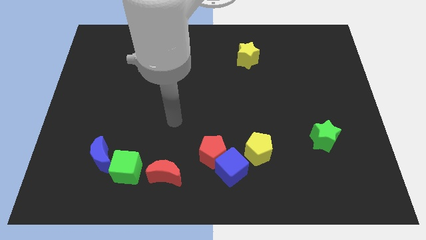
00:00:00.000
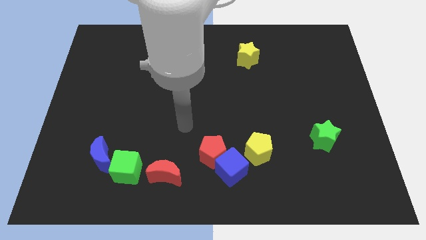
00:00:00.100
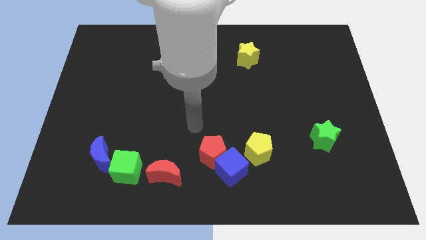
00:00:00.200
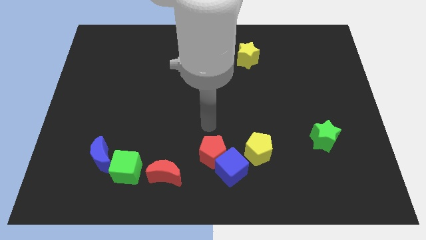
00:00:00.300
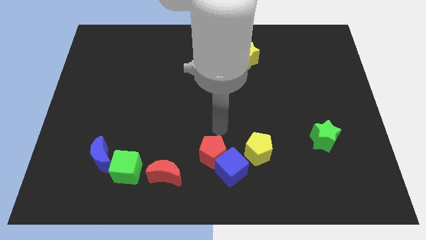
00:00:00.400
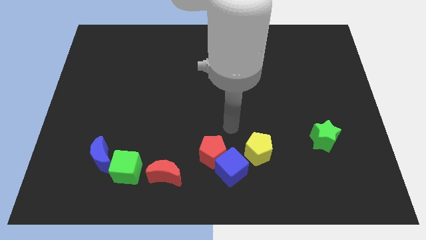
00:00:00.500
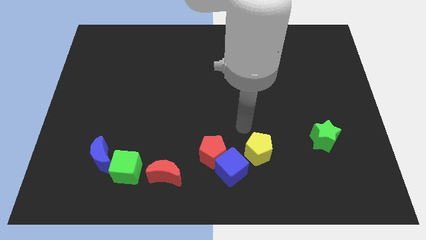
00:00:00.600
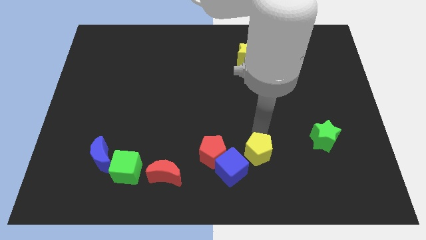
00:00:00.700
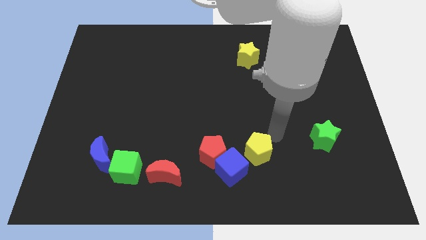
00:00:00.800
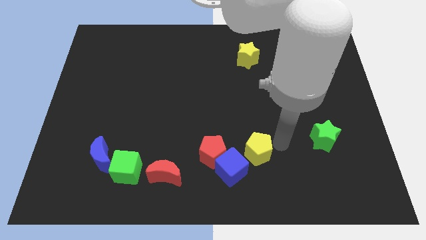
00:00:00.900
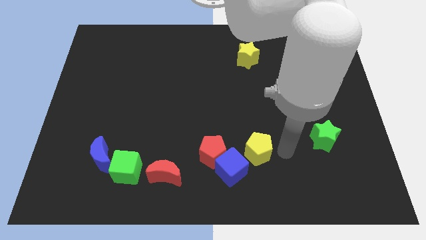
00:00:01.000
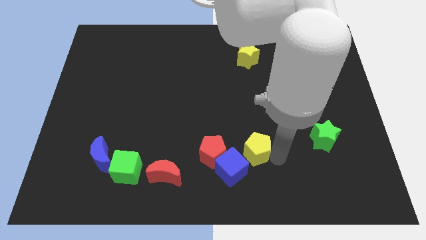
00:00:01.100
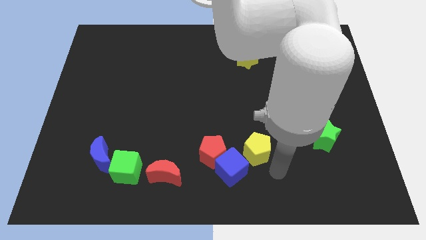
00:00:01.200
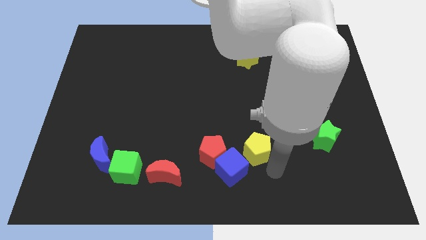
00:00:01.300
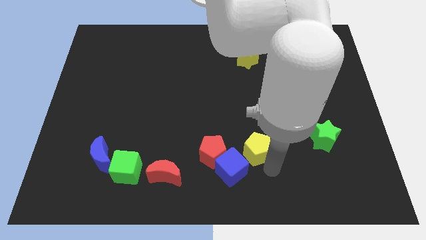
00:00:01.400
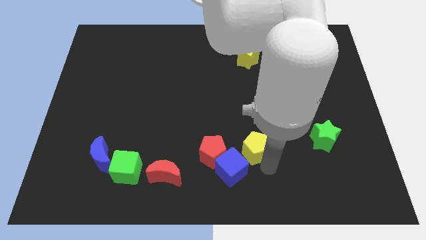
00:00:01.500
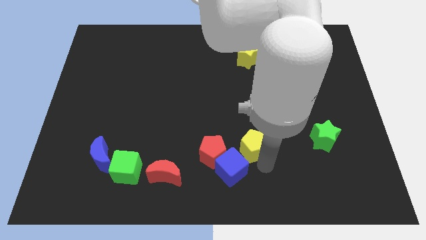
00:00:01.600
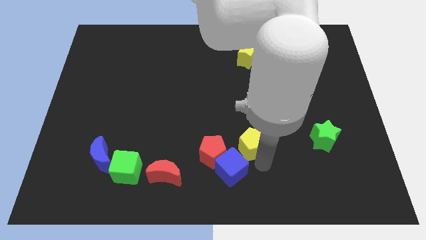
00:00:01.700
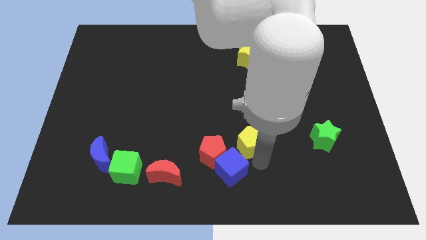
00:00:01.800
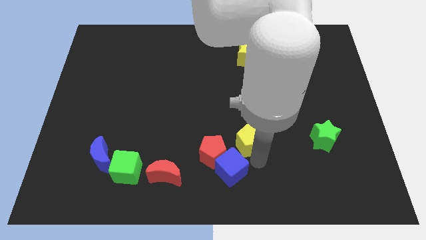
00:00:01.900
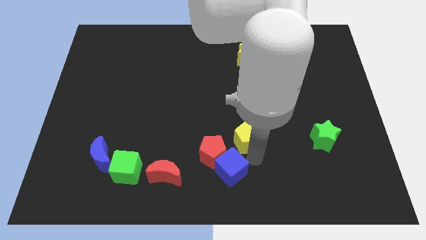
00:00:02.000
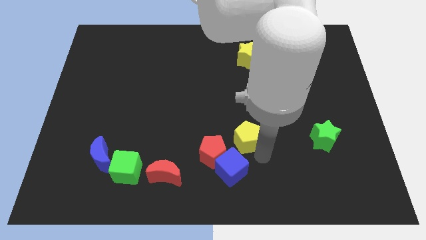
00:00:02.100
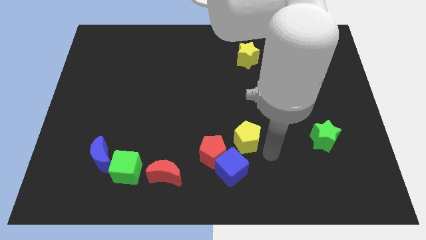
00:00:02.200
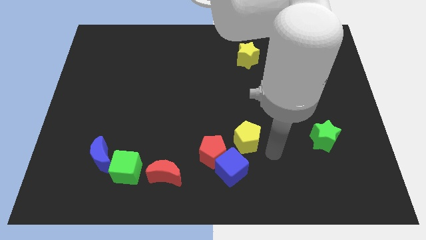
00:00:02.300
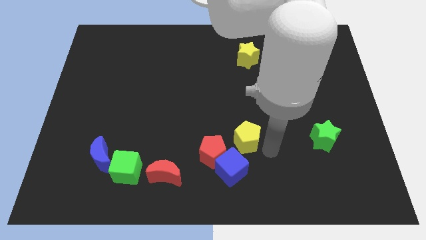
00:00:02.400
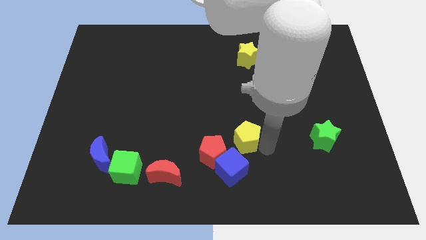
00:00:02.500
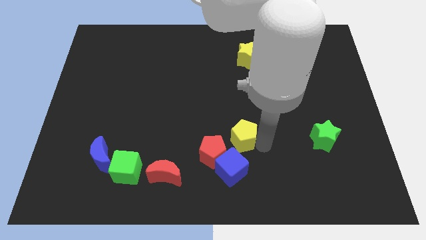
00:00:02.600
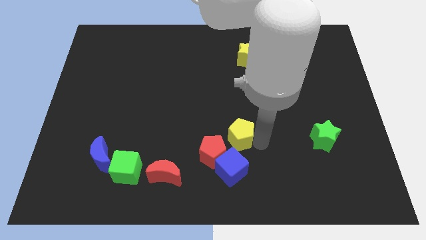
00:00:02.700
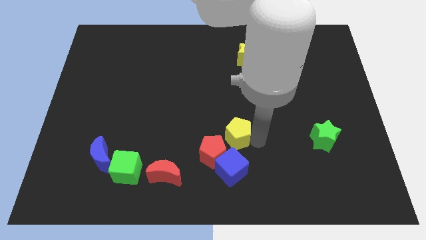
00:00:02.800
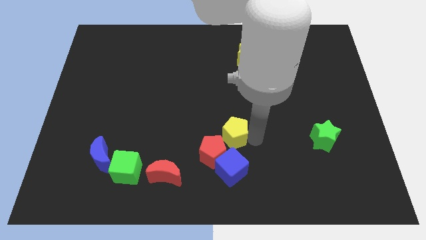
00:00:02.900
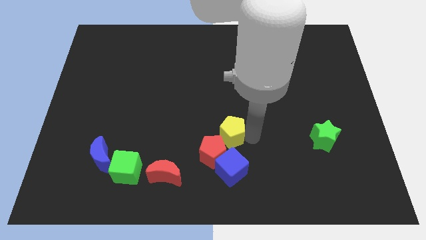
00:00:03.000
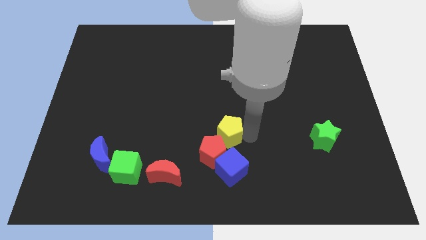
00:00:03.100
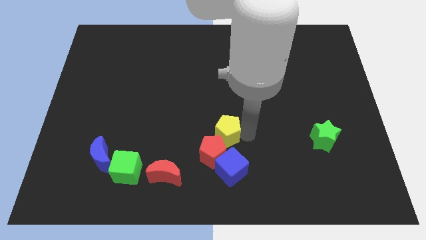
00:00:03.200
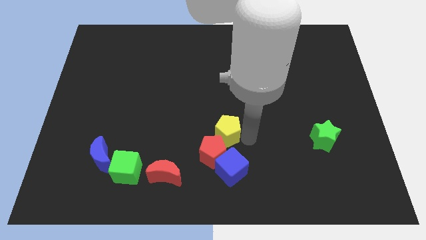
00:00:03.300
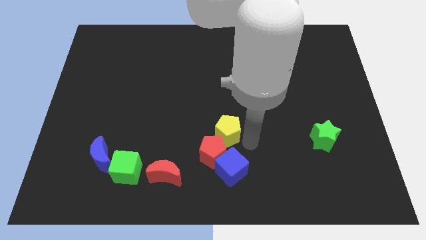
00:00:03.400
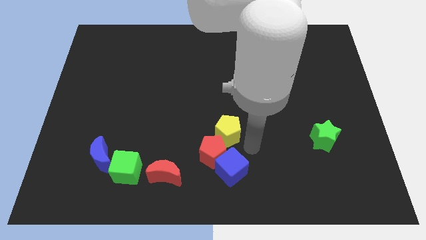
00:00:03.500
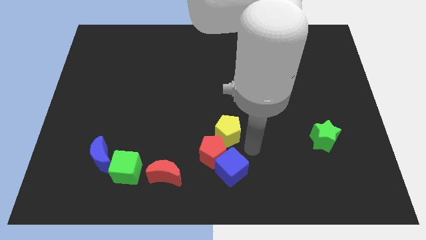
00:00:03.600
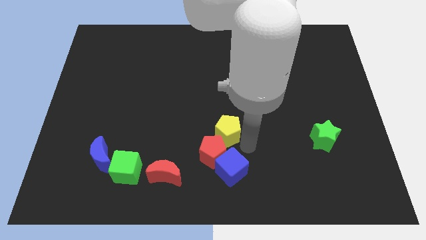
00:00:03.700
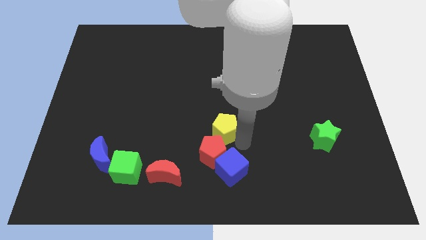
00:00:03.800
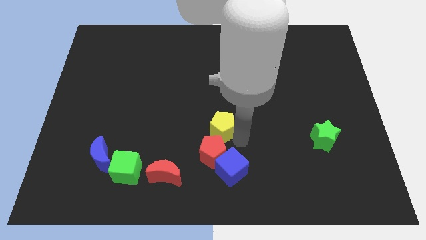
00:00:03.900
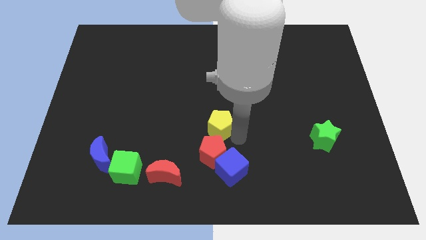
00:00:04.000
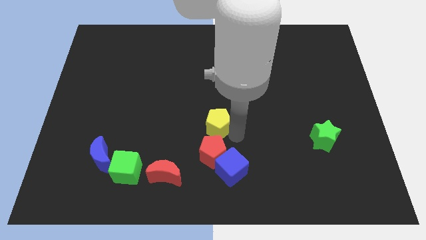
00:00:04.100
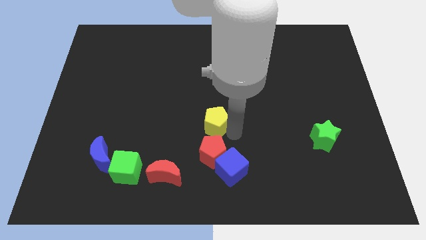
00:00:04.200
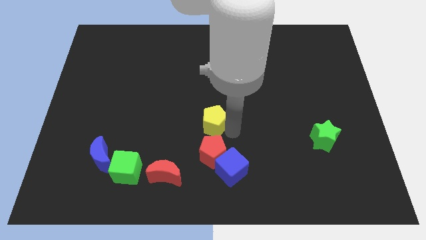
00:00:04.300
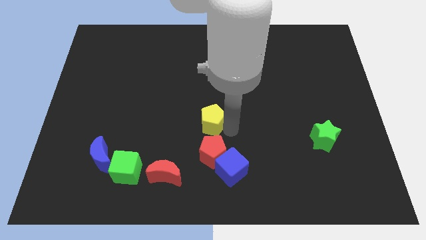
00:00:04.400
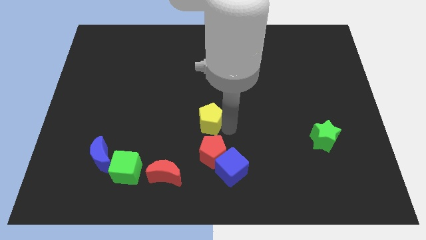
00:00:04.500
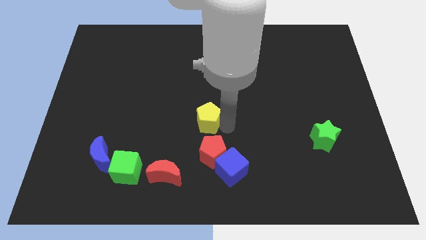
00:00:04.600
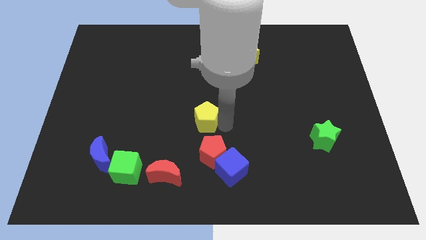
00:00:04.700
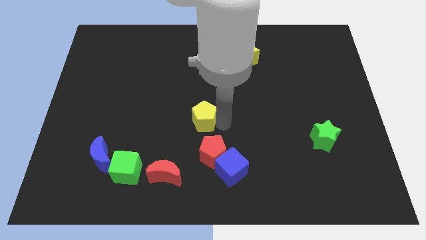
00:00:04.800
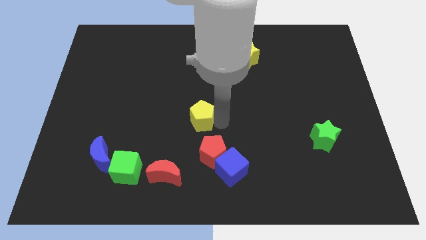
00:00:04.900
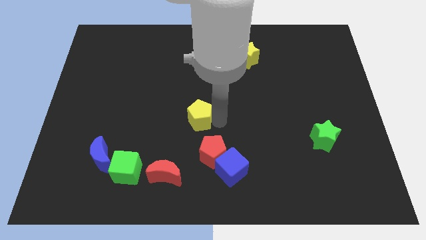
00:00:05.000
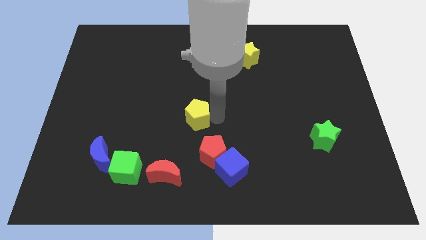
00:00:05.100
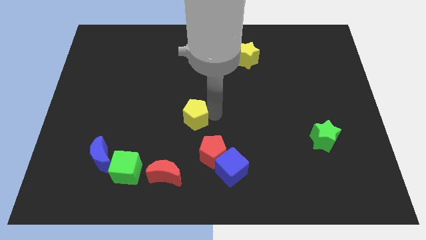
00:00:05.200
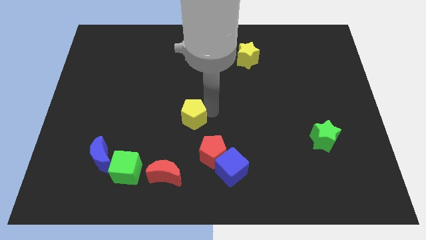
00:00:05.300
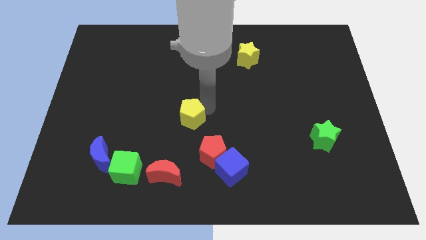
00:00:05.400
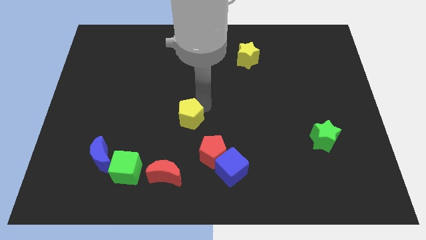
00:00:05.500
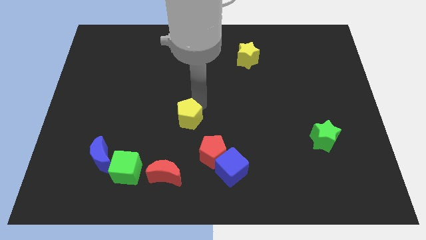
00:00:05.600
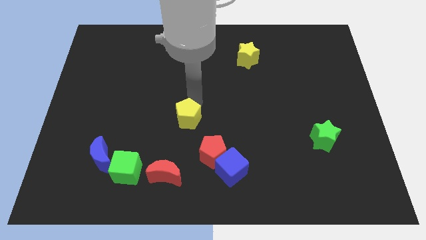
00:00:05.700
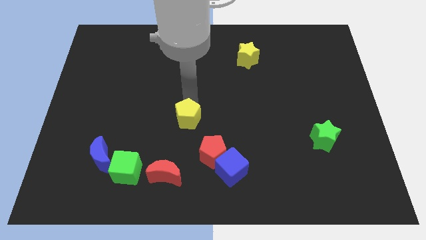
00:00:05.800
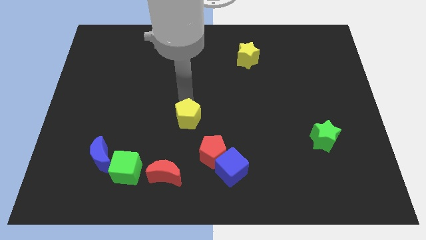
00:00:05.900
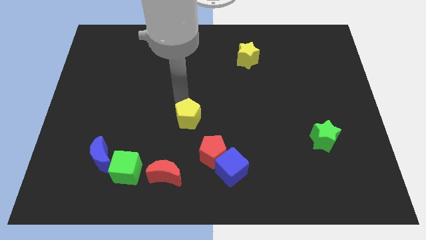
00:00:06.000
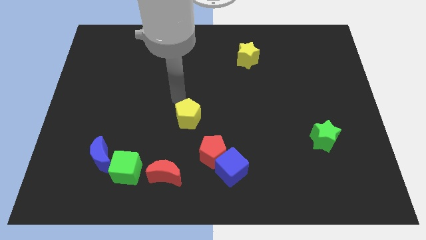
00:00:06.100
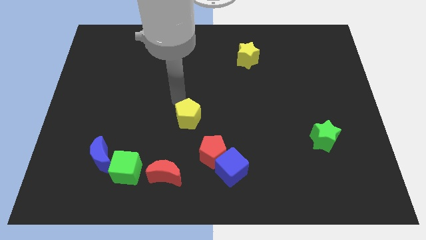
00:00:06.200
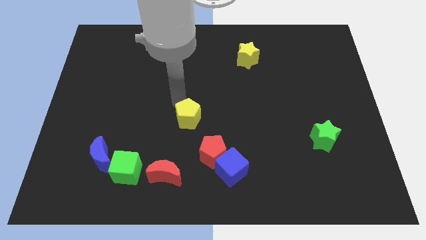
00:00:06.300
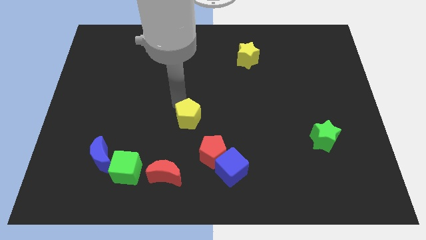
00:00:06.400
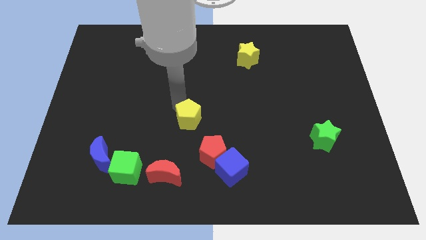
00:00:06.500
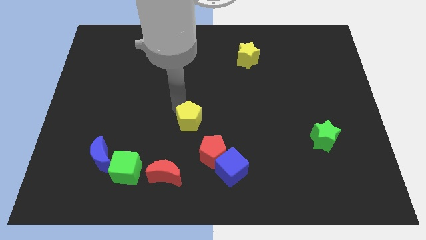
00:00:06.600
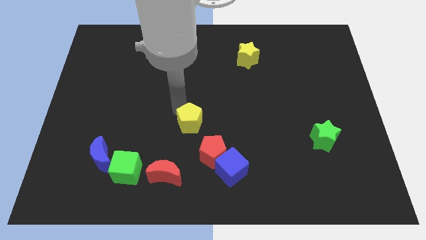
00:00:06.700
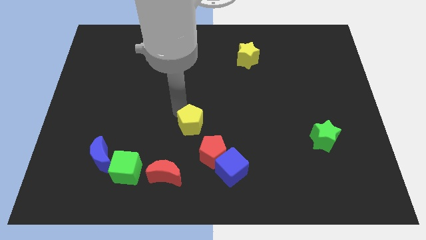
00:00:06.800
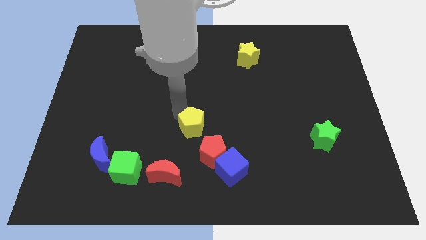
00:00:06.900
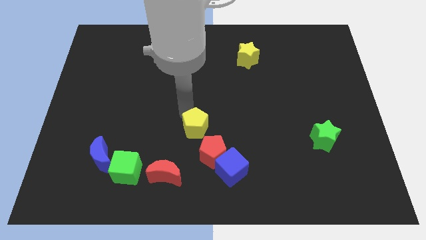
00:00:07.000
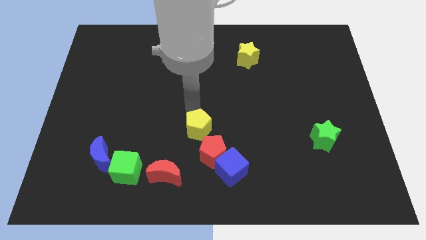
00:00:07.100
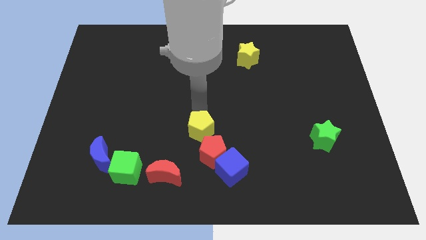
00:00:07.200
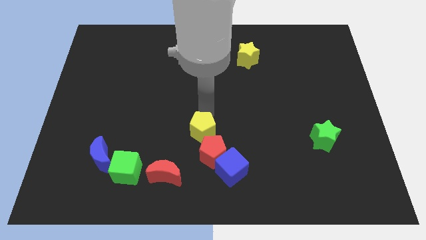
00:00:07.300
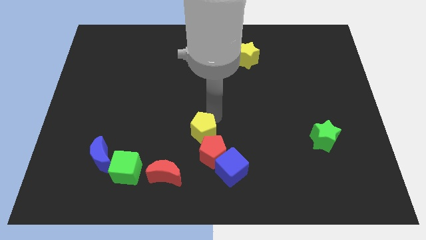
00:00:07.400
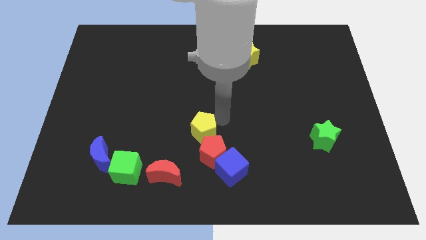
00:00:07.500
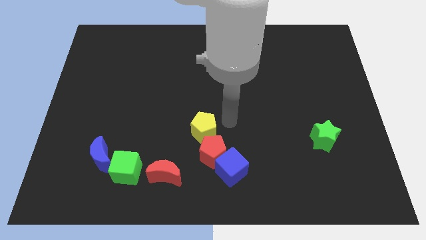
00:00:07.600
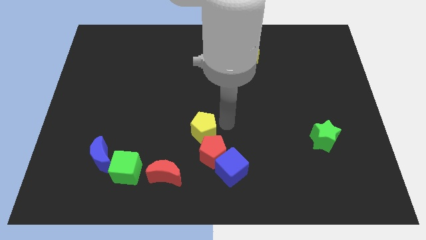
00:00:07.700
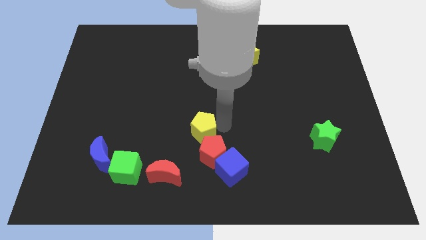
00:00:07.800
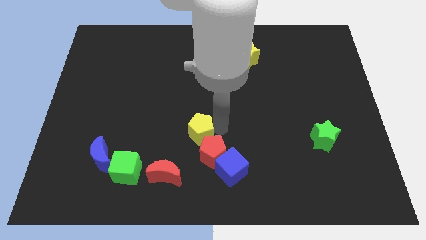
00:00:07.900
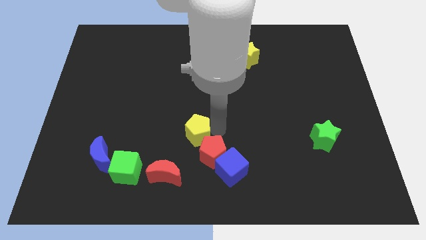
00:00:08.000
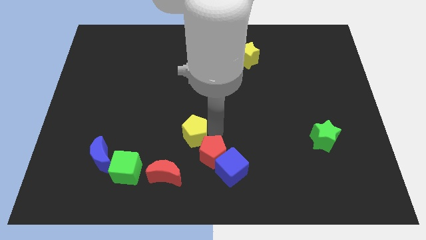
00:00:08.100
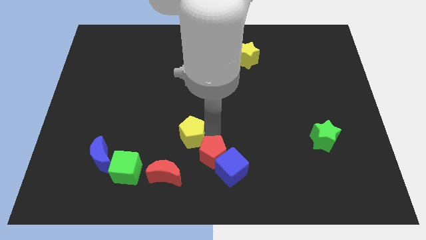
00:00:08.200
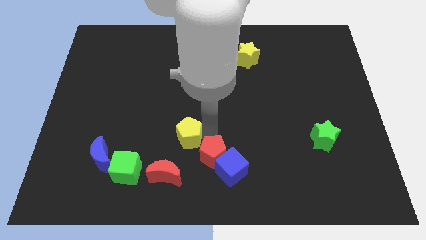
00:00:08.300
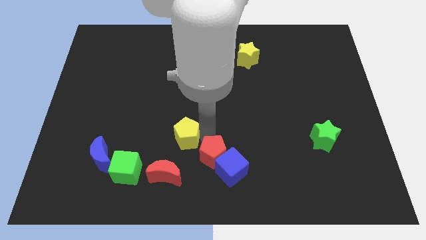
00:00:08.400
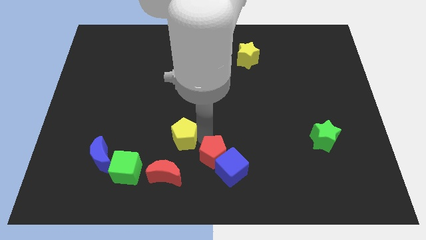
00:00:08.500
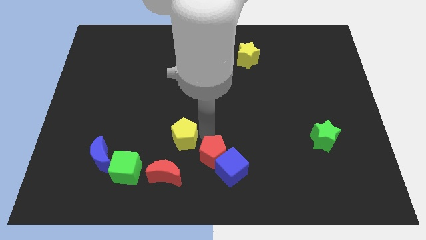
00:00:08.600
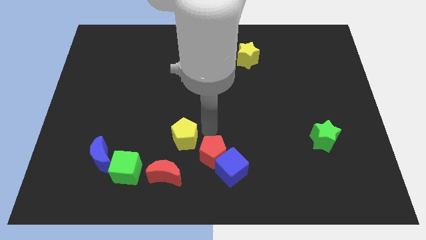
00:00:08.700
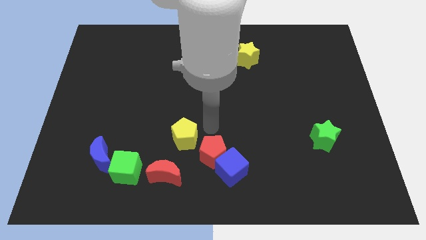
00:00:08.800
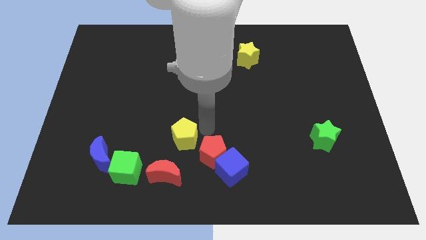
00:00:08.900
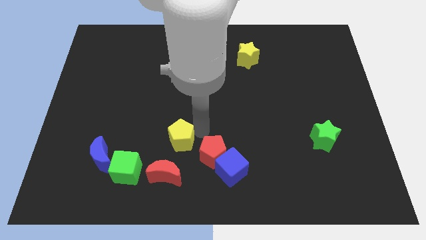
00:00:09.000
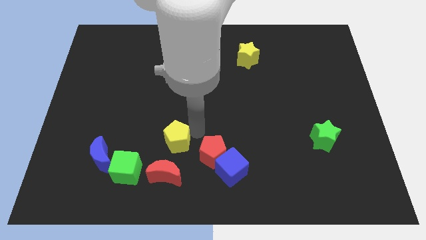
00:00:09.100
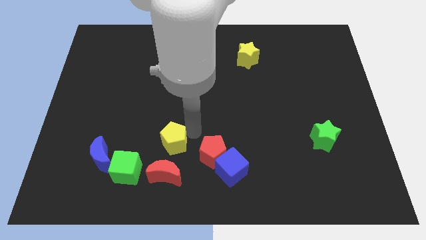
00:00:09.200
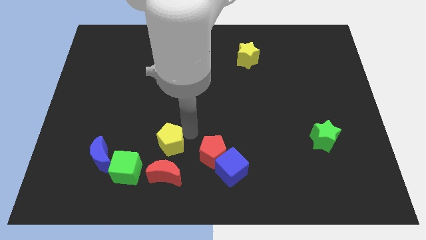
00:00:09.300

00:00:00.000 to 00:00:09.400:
put the yellow pentagon to the right side of the blue moon
